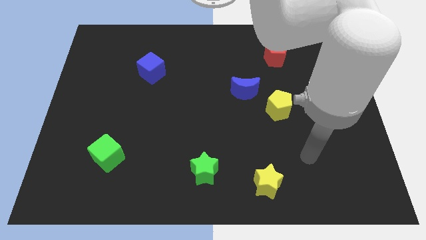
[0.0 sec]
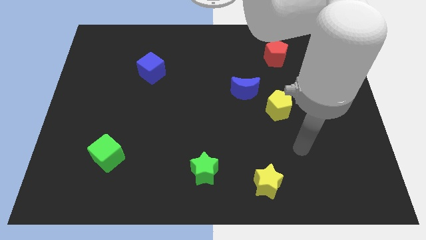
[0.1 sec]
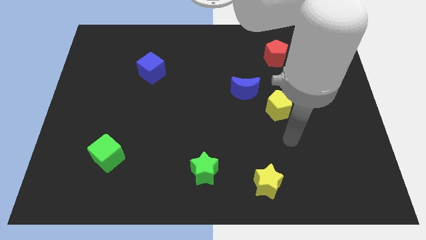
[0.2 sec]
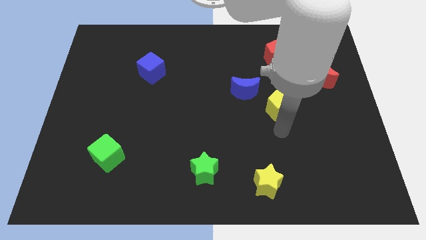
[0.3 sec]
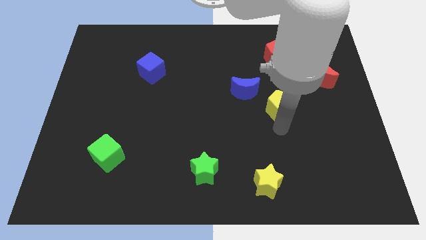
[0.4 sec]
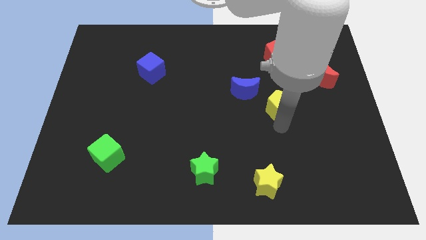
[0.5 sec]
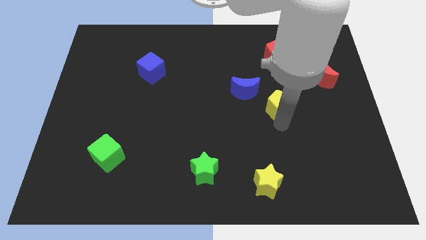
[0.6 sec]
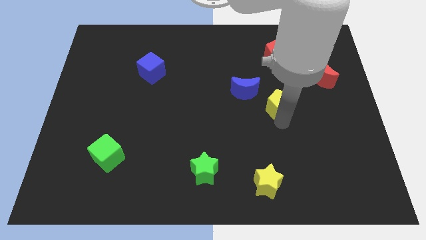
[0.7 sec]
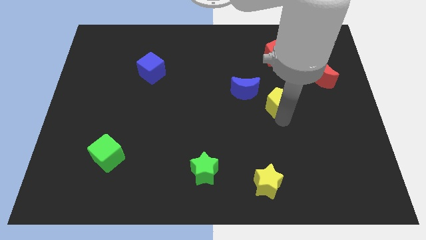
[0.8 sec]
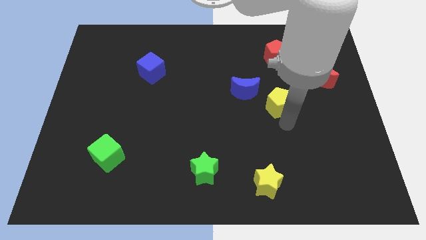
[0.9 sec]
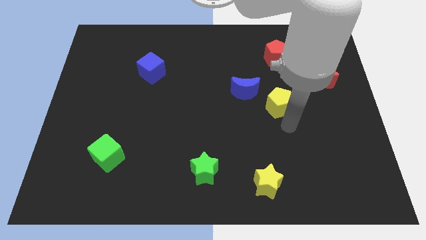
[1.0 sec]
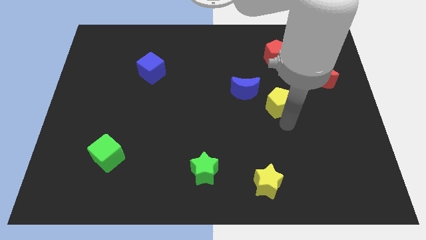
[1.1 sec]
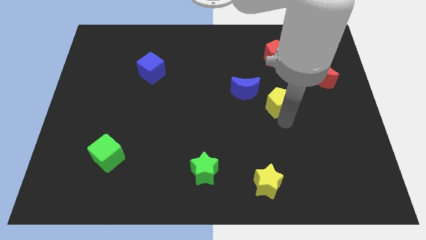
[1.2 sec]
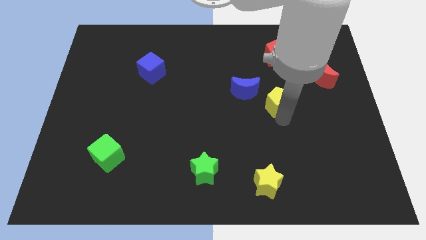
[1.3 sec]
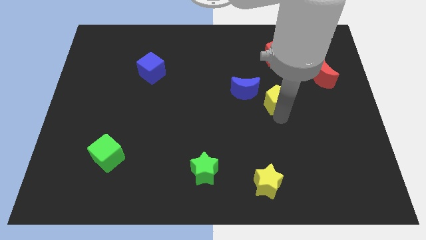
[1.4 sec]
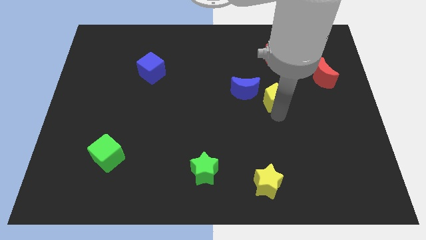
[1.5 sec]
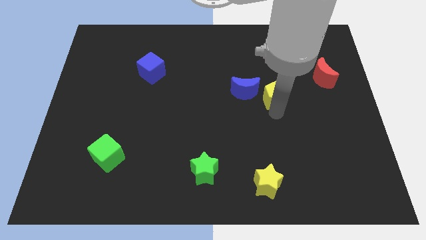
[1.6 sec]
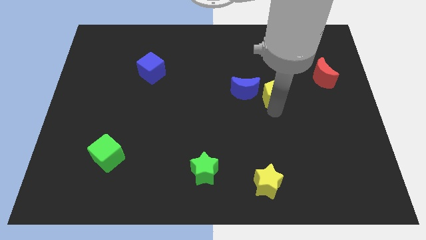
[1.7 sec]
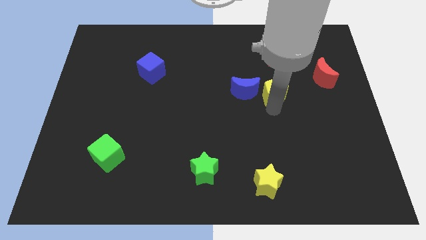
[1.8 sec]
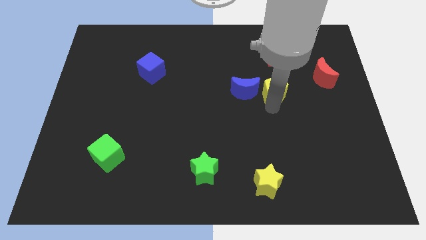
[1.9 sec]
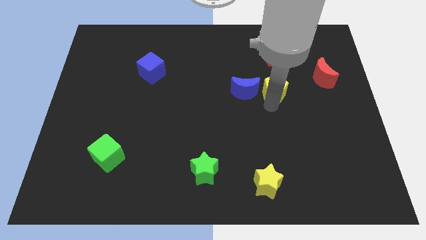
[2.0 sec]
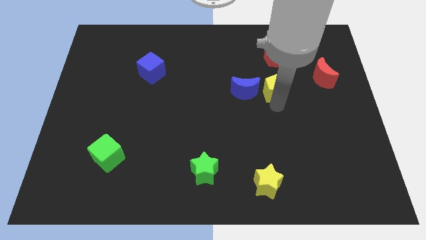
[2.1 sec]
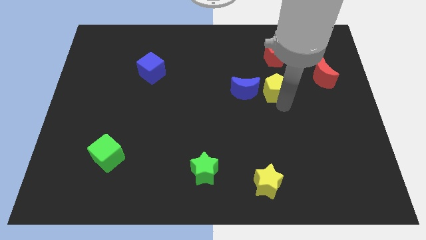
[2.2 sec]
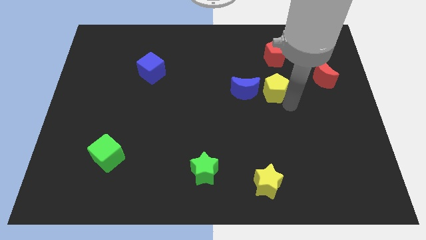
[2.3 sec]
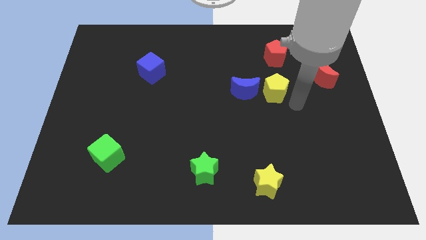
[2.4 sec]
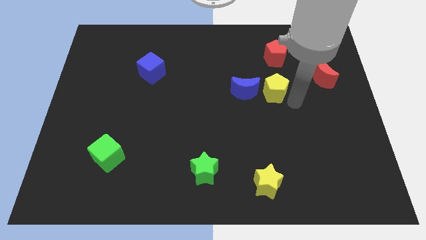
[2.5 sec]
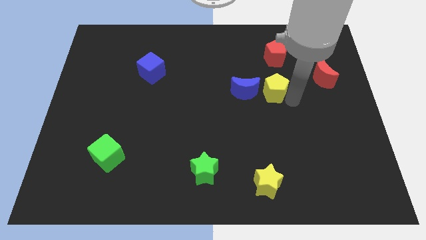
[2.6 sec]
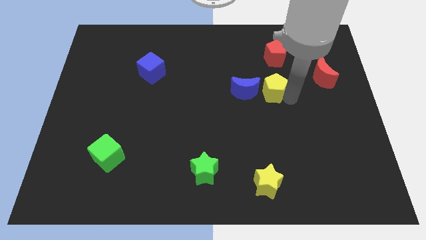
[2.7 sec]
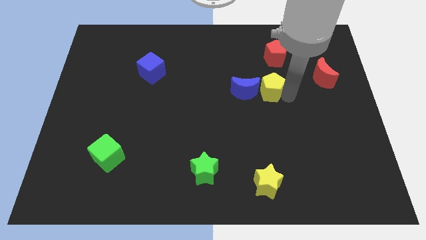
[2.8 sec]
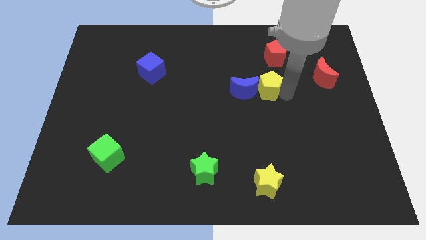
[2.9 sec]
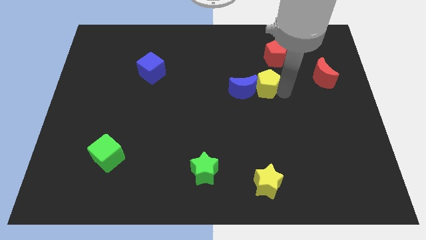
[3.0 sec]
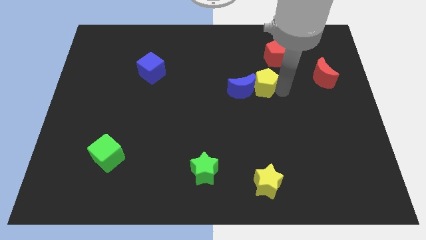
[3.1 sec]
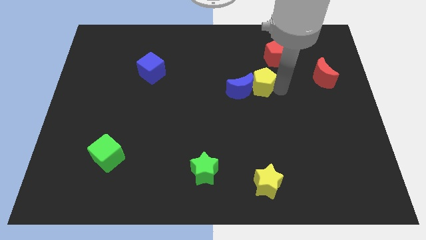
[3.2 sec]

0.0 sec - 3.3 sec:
slightly push the yellow pentagon upwards and then left

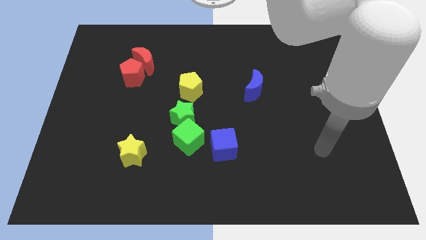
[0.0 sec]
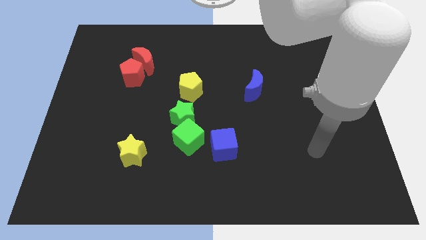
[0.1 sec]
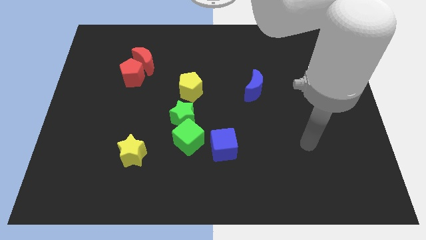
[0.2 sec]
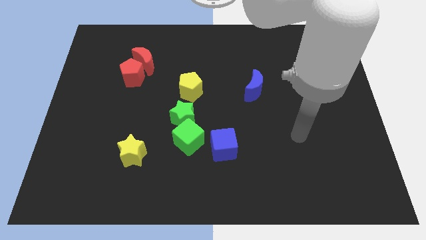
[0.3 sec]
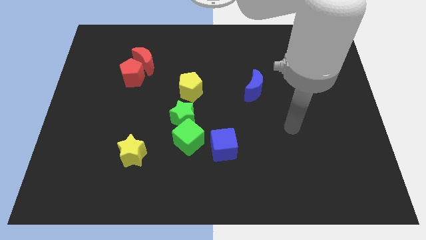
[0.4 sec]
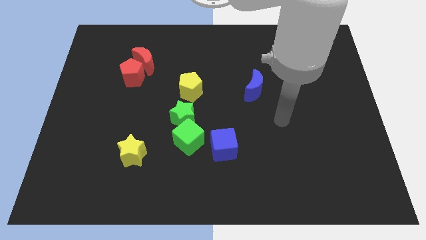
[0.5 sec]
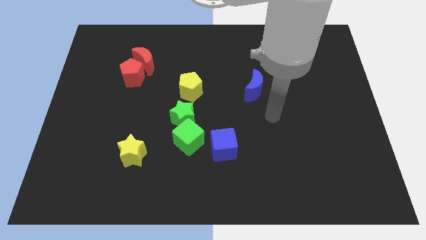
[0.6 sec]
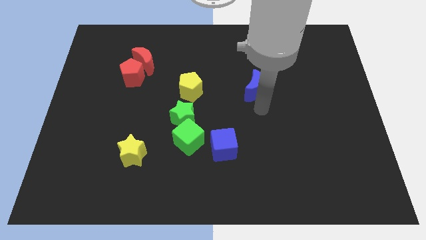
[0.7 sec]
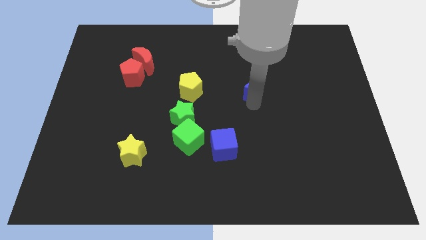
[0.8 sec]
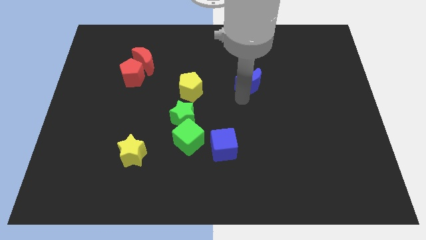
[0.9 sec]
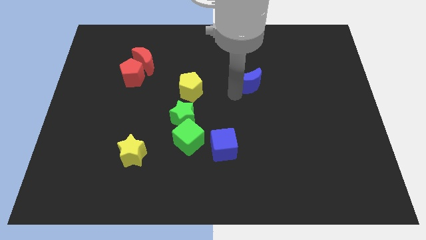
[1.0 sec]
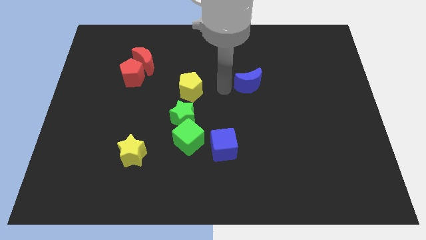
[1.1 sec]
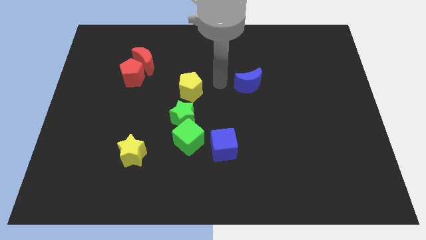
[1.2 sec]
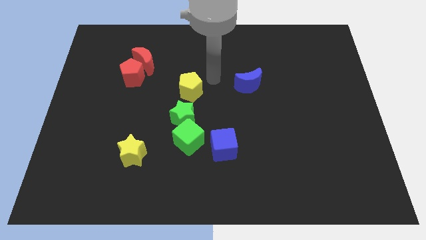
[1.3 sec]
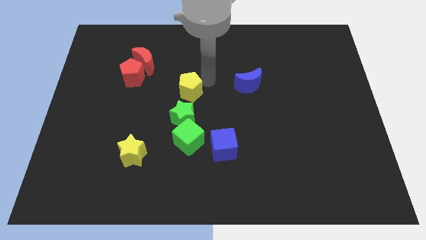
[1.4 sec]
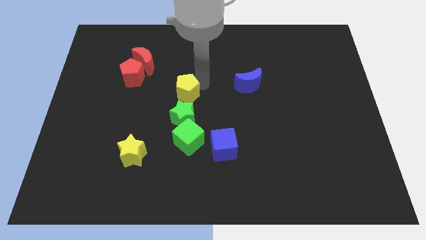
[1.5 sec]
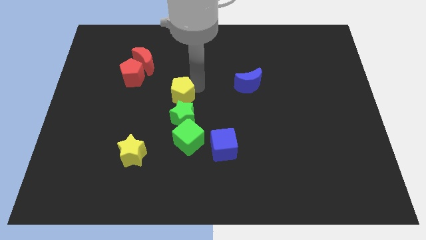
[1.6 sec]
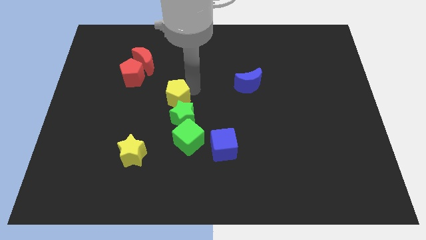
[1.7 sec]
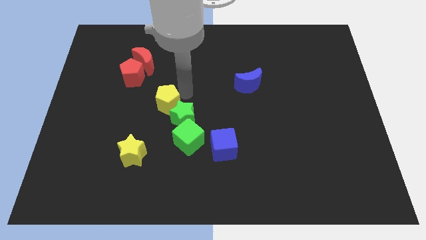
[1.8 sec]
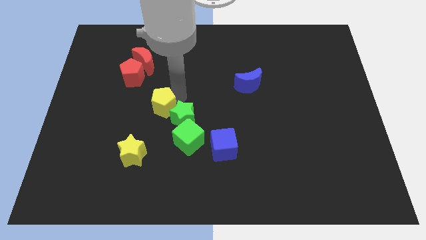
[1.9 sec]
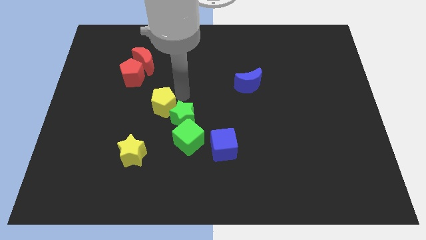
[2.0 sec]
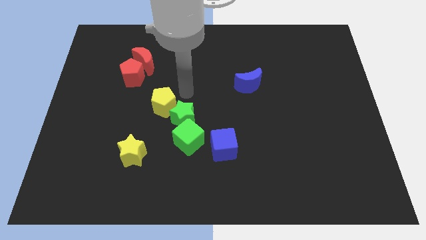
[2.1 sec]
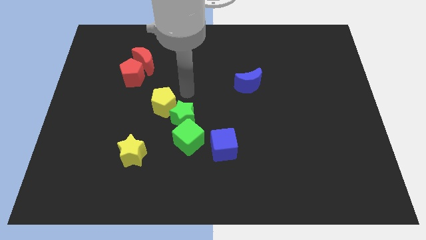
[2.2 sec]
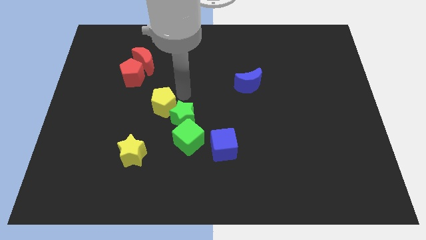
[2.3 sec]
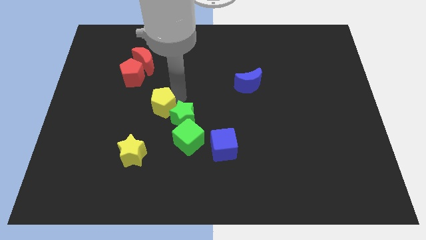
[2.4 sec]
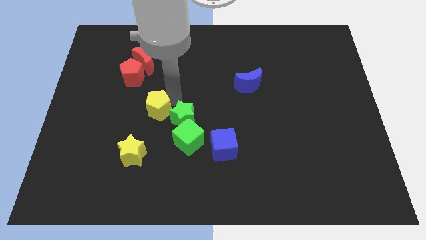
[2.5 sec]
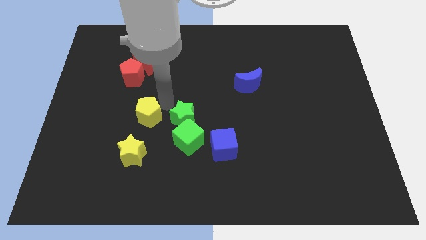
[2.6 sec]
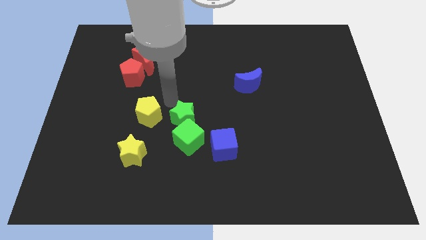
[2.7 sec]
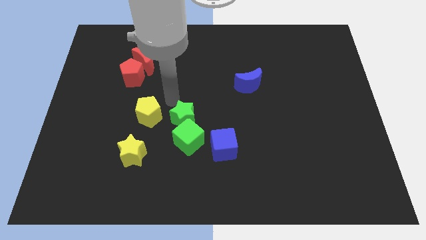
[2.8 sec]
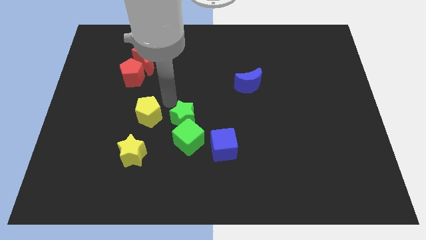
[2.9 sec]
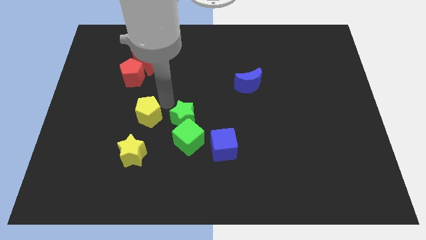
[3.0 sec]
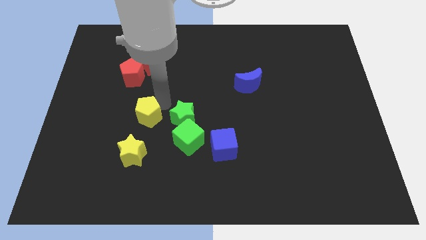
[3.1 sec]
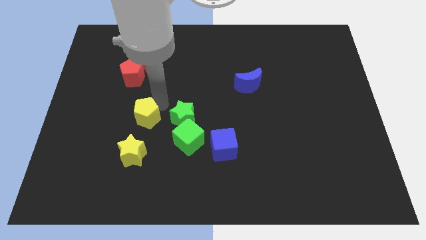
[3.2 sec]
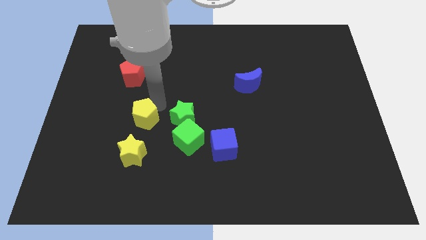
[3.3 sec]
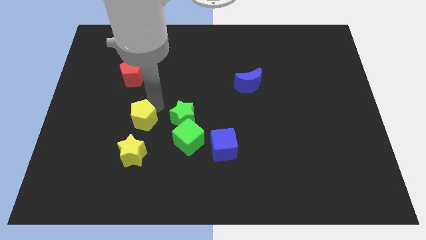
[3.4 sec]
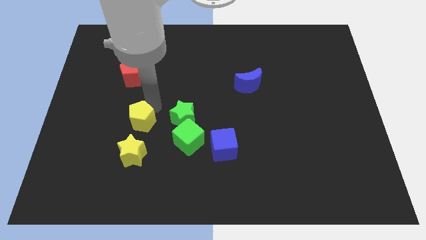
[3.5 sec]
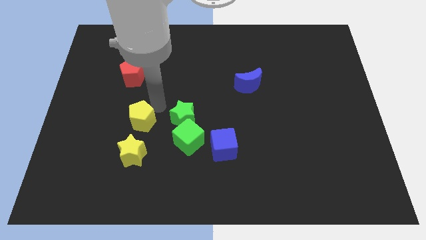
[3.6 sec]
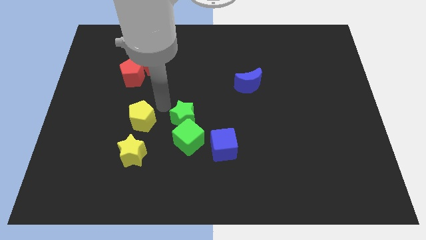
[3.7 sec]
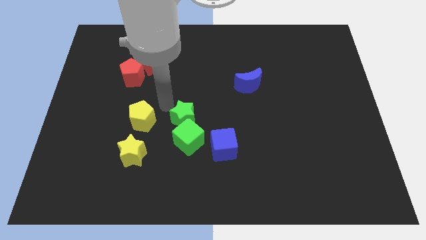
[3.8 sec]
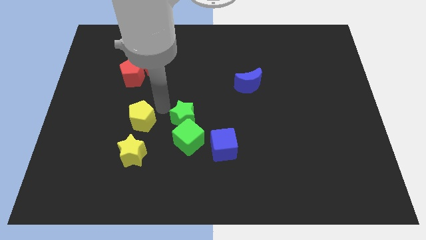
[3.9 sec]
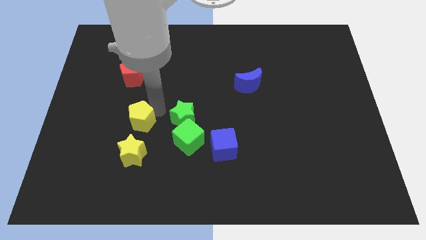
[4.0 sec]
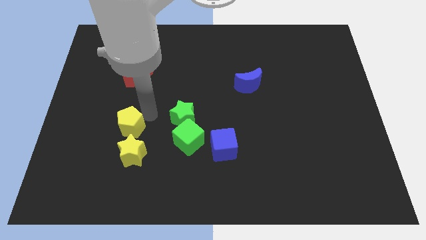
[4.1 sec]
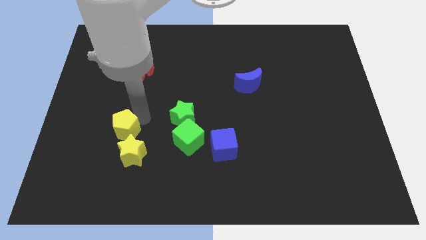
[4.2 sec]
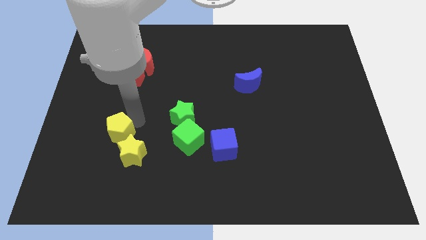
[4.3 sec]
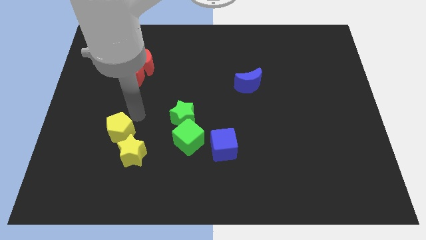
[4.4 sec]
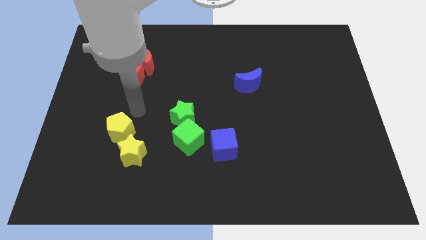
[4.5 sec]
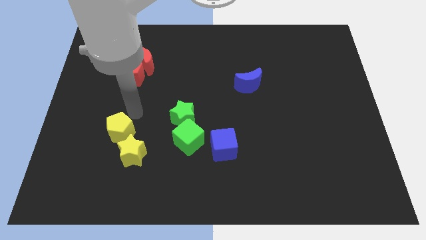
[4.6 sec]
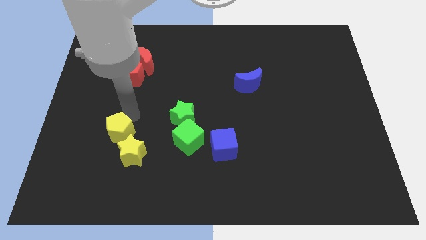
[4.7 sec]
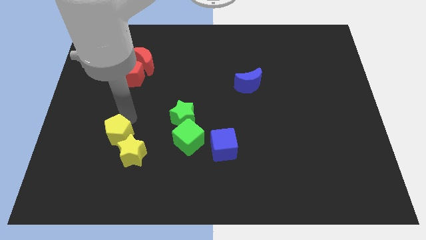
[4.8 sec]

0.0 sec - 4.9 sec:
push the yellow pentagon diagonally down and left
